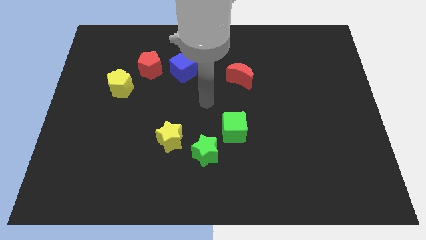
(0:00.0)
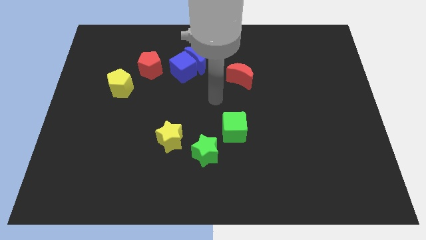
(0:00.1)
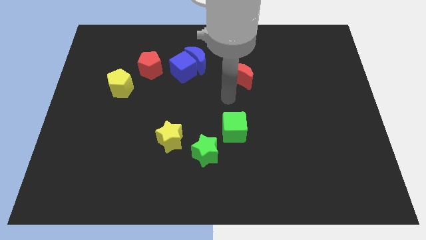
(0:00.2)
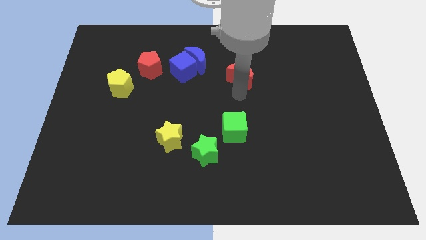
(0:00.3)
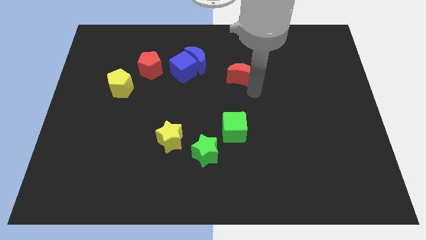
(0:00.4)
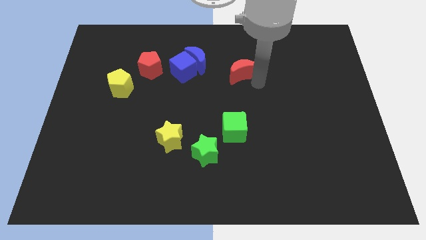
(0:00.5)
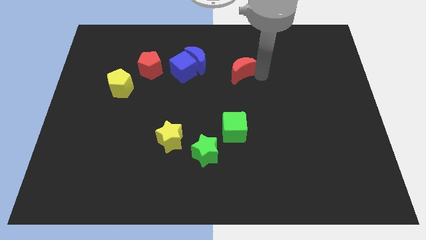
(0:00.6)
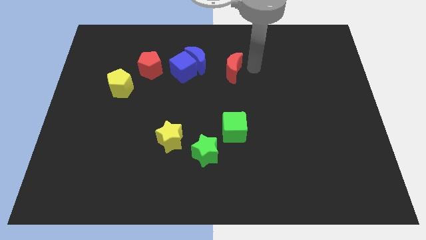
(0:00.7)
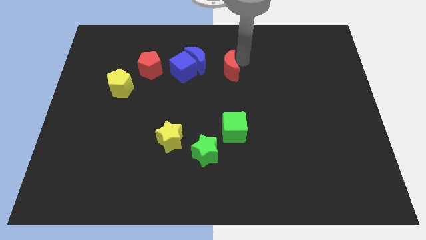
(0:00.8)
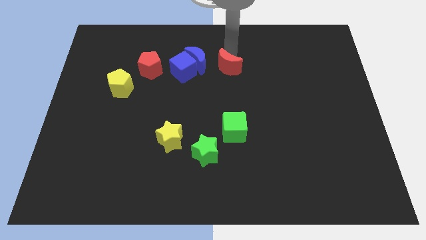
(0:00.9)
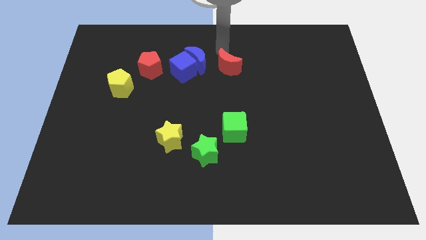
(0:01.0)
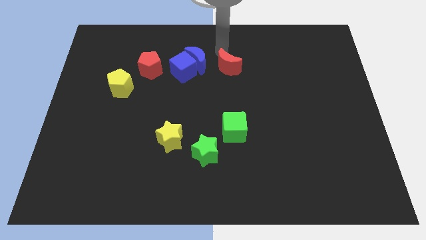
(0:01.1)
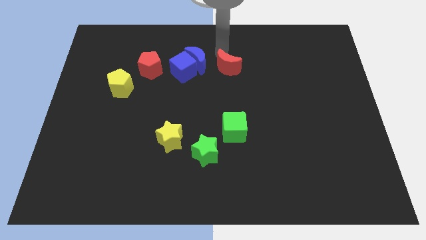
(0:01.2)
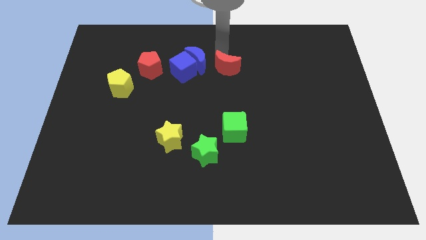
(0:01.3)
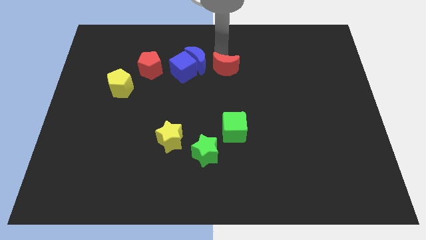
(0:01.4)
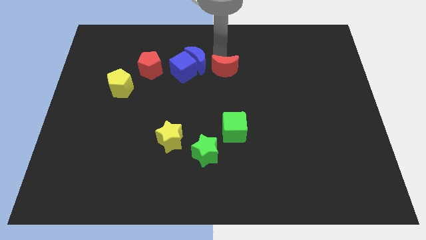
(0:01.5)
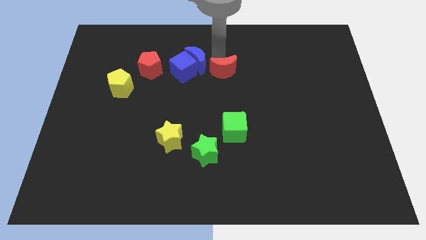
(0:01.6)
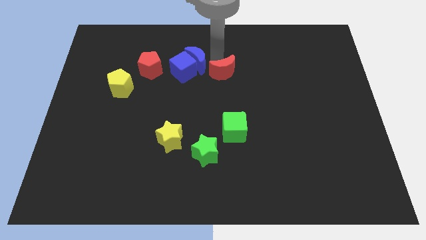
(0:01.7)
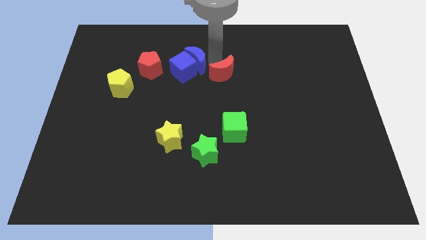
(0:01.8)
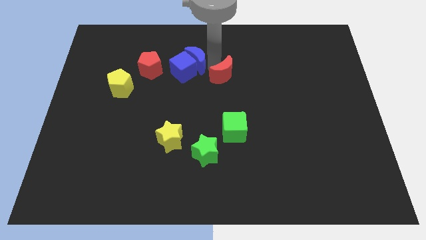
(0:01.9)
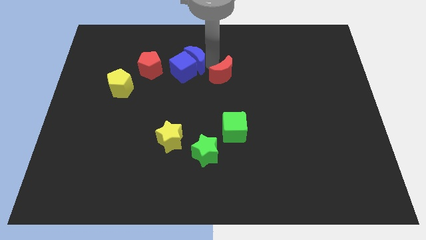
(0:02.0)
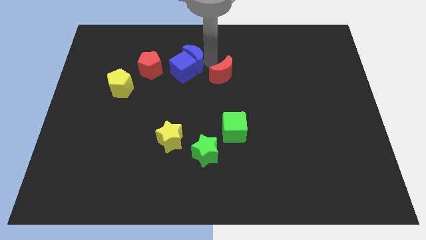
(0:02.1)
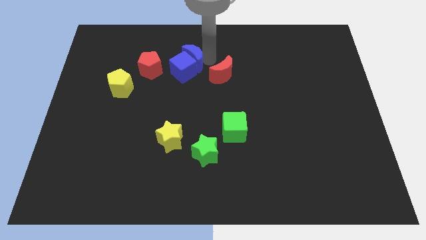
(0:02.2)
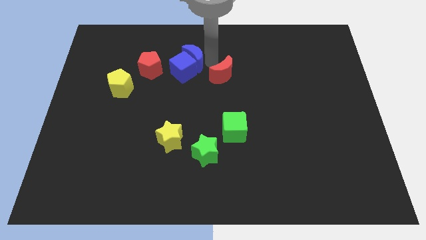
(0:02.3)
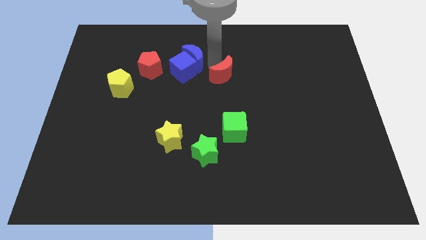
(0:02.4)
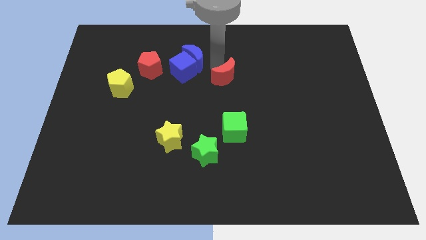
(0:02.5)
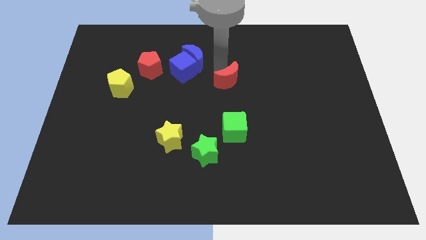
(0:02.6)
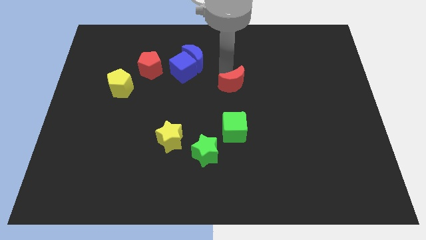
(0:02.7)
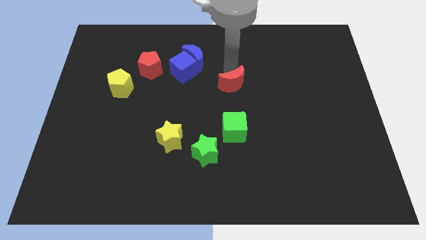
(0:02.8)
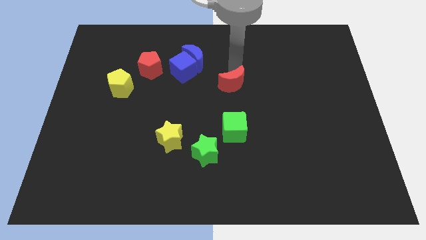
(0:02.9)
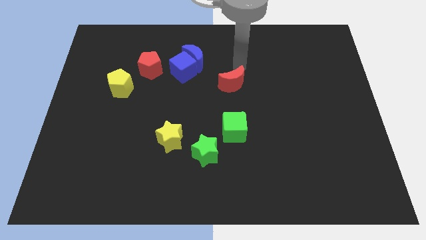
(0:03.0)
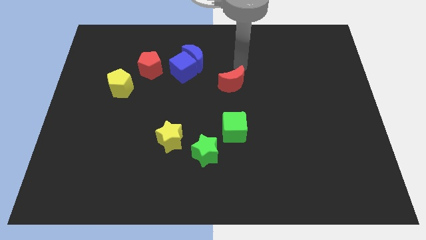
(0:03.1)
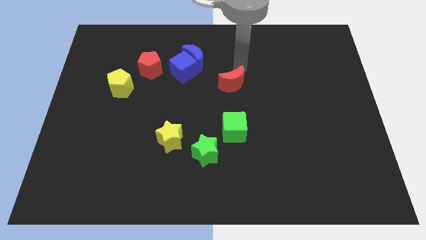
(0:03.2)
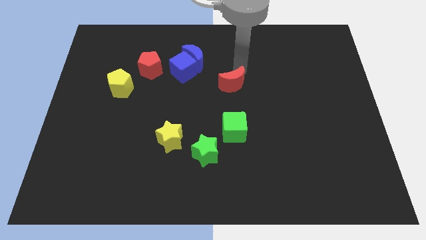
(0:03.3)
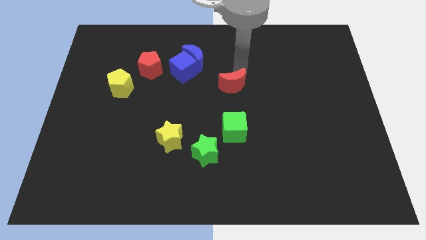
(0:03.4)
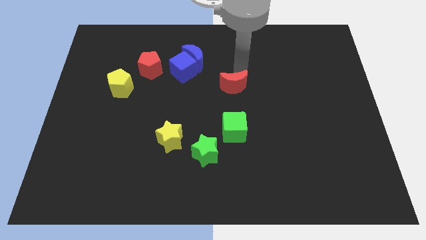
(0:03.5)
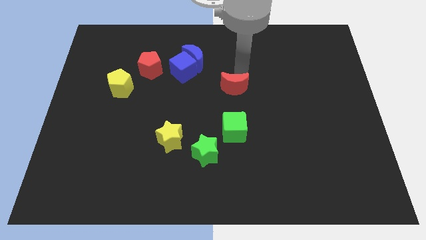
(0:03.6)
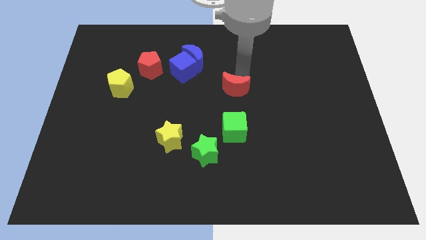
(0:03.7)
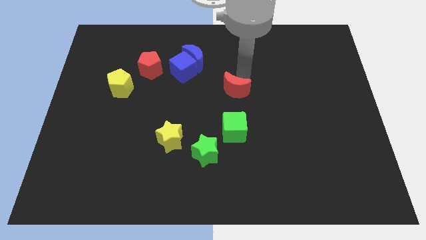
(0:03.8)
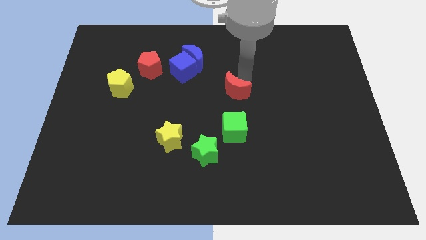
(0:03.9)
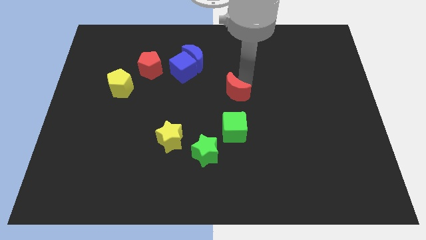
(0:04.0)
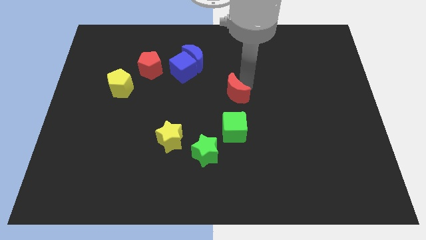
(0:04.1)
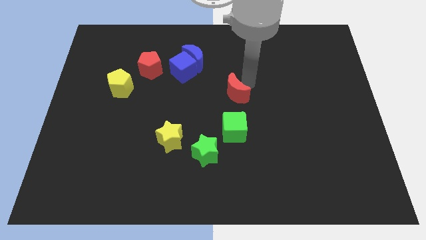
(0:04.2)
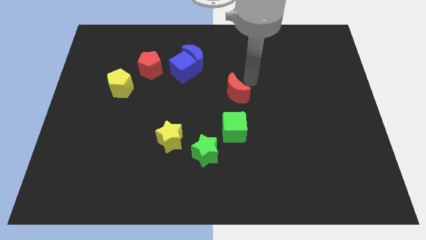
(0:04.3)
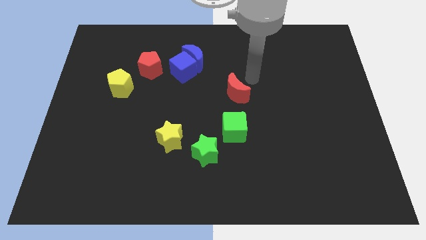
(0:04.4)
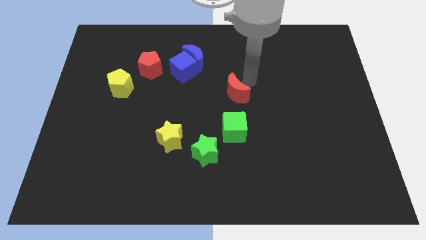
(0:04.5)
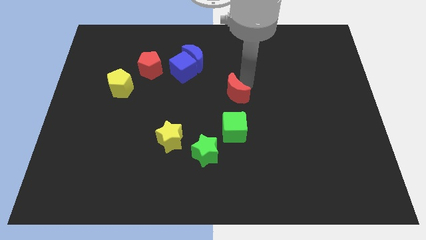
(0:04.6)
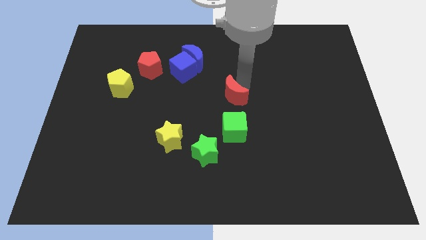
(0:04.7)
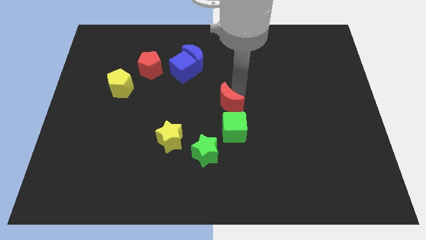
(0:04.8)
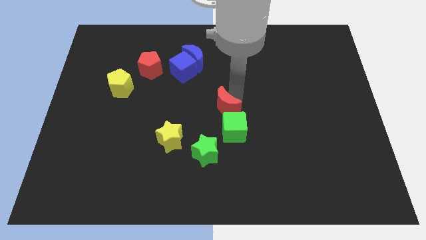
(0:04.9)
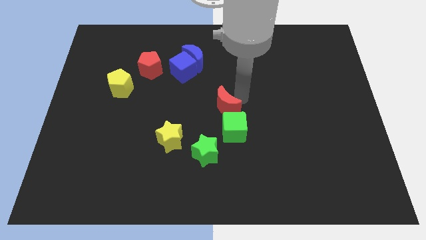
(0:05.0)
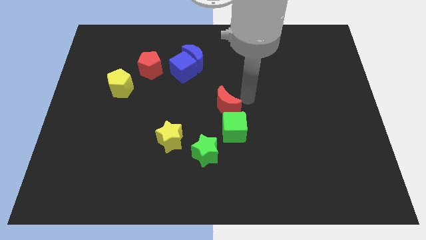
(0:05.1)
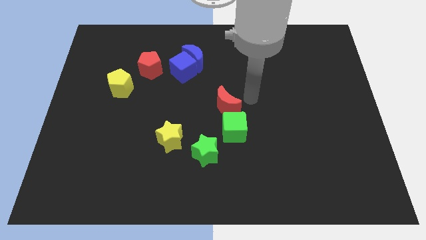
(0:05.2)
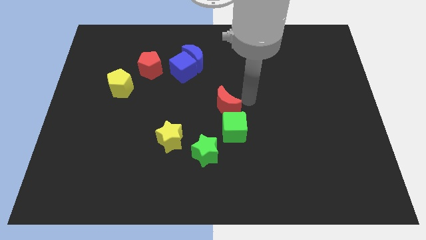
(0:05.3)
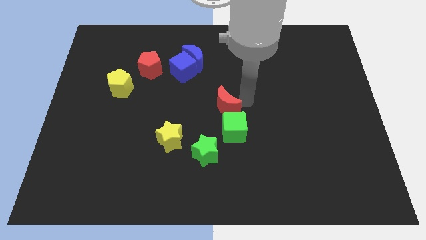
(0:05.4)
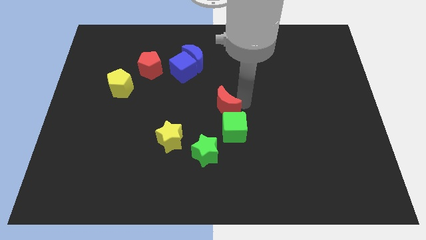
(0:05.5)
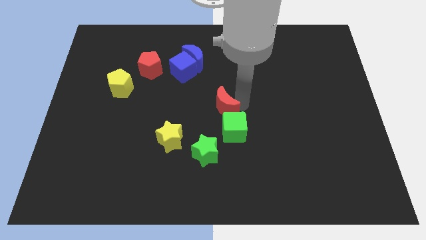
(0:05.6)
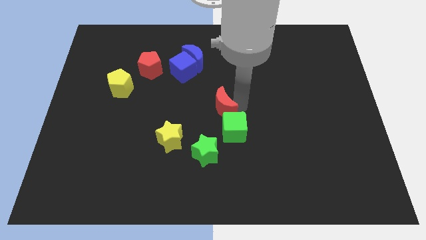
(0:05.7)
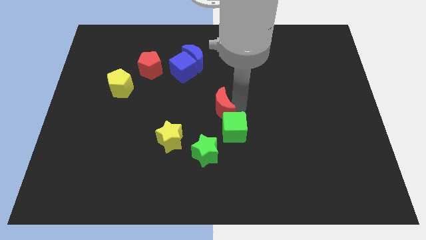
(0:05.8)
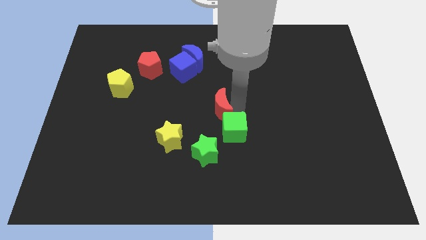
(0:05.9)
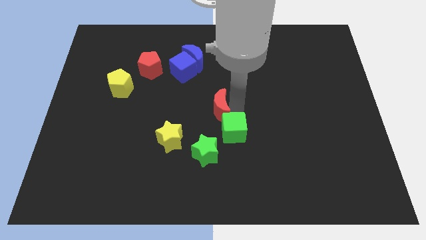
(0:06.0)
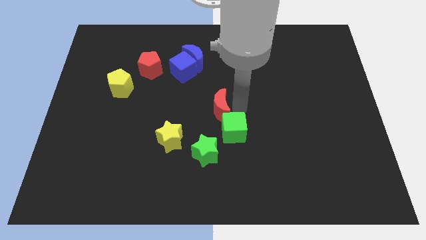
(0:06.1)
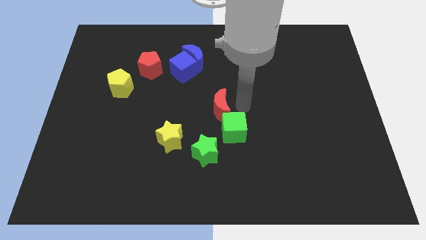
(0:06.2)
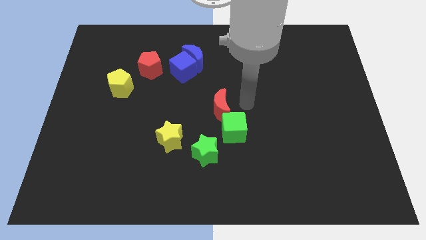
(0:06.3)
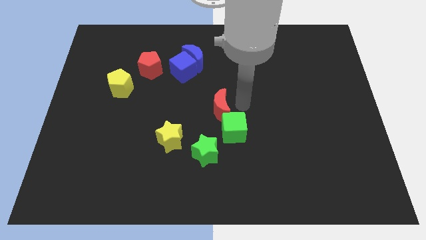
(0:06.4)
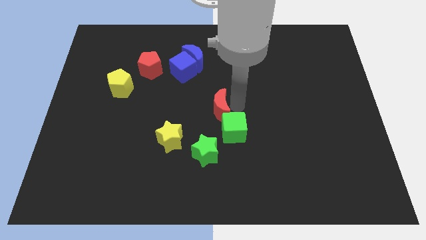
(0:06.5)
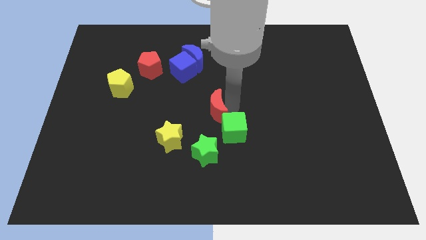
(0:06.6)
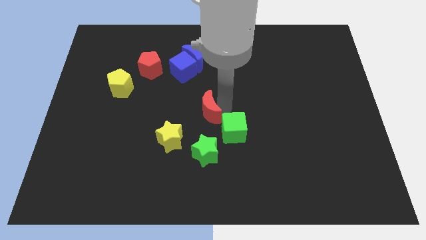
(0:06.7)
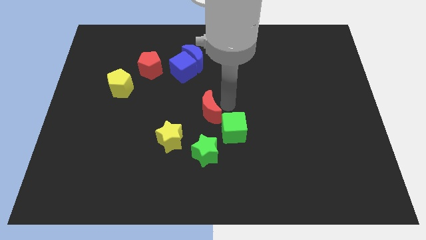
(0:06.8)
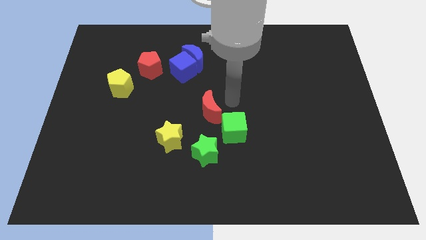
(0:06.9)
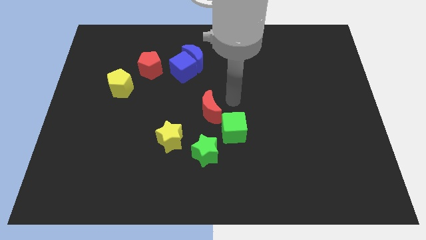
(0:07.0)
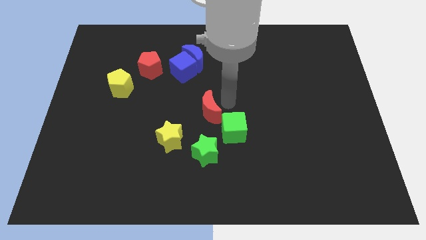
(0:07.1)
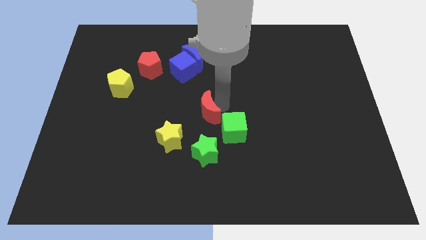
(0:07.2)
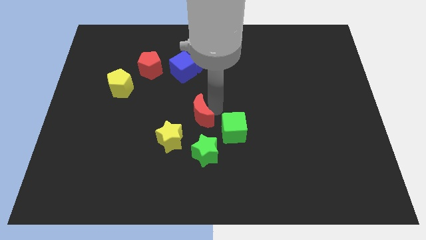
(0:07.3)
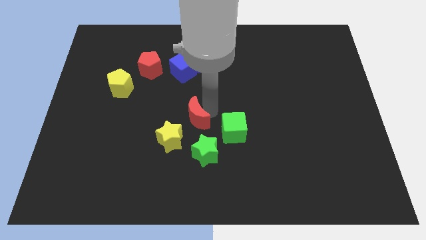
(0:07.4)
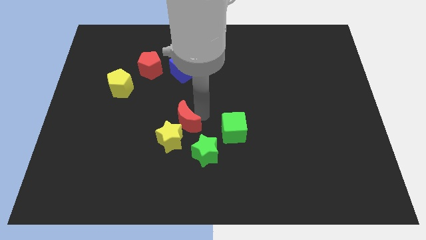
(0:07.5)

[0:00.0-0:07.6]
move the red moon to the yellow star

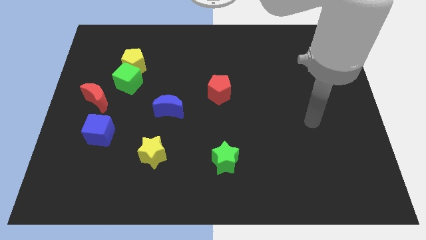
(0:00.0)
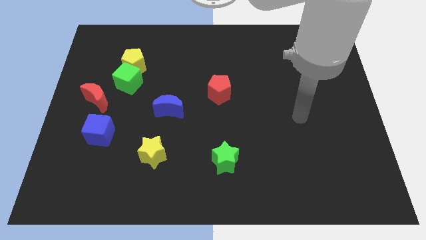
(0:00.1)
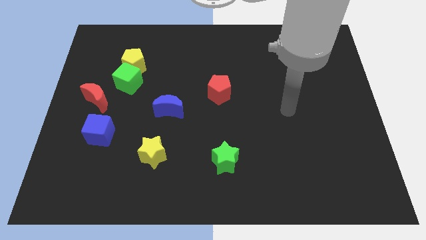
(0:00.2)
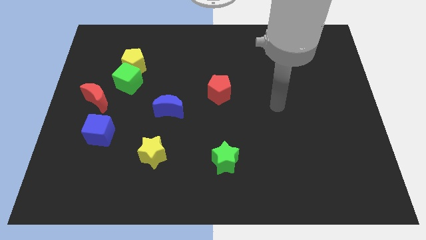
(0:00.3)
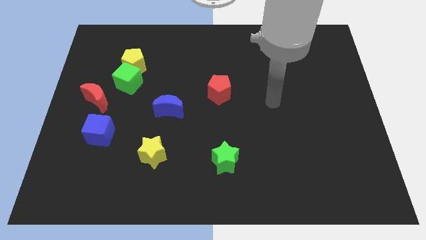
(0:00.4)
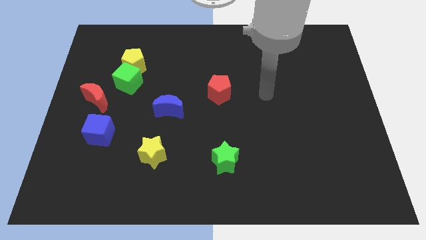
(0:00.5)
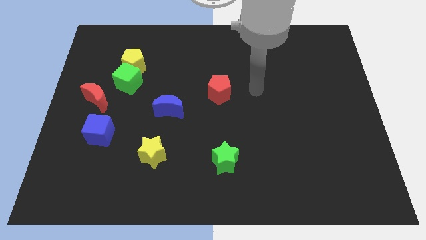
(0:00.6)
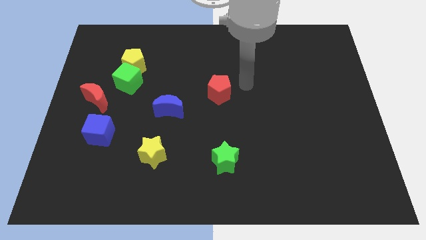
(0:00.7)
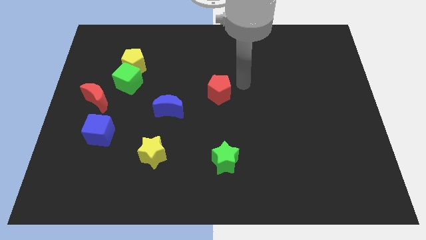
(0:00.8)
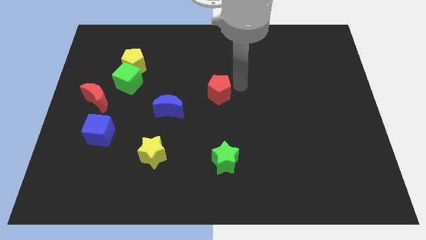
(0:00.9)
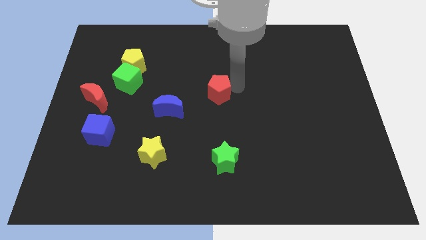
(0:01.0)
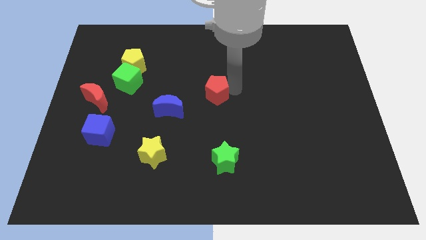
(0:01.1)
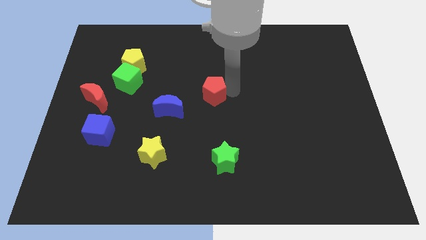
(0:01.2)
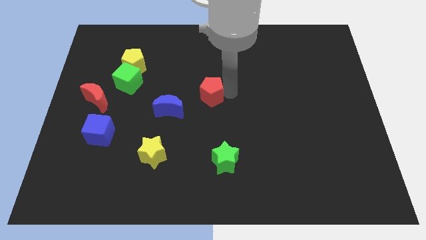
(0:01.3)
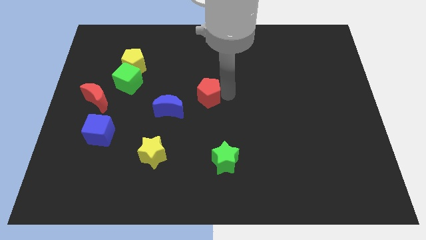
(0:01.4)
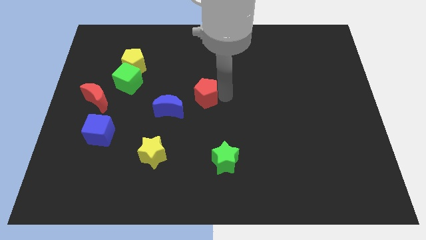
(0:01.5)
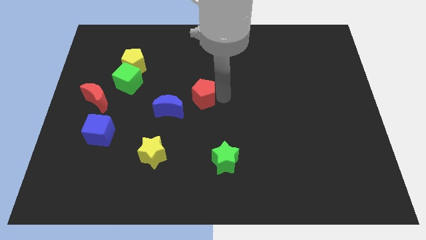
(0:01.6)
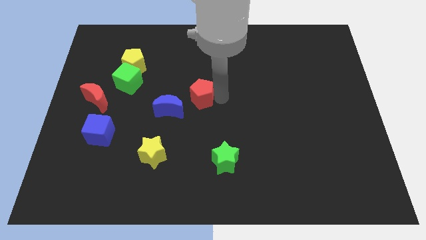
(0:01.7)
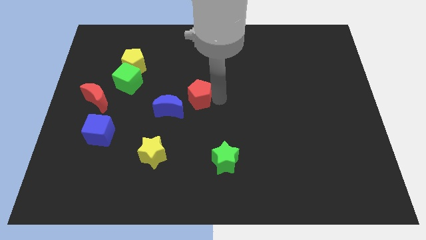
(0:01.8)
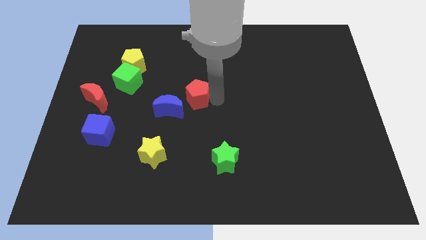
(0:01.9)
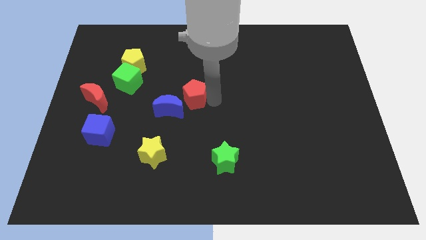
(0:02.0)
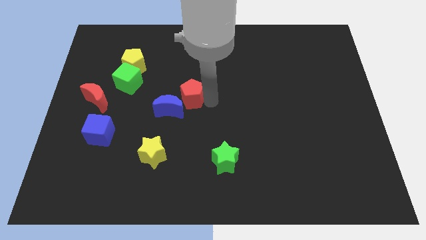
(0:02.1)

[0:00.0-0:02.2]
push the red pentagon close to the blue moon
